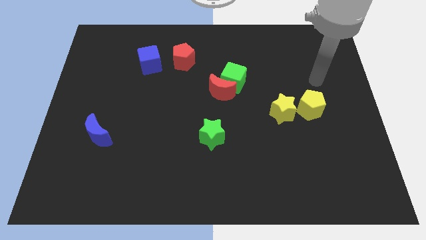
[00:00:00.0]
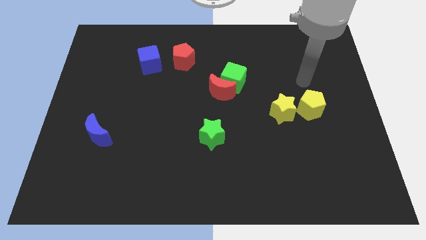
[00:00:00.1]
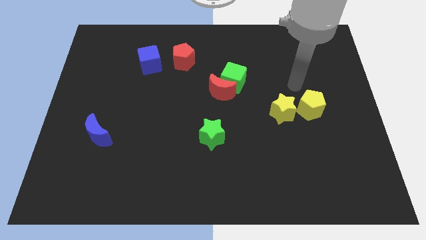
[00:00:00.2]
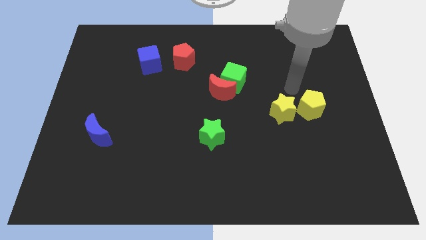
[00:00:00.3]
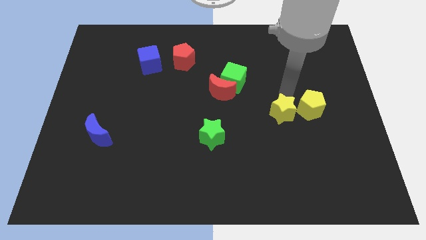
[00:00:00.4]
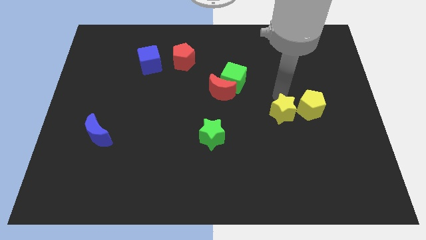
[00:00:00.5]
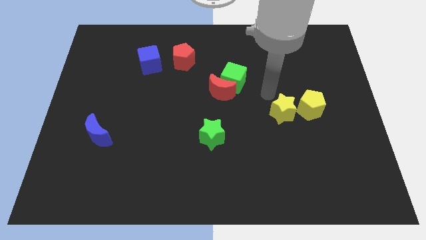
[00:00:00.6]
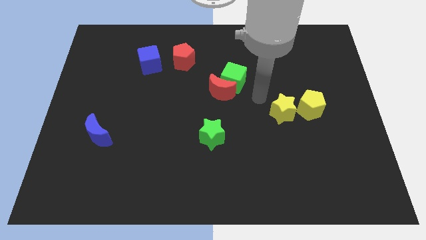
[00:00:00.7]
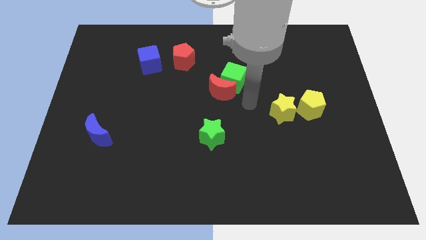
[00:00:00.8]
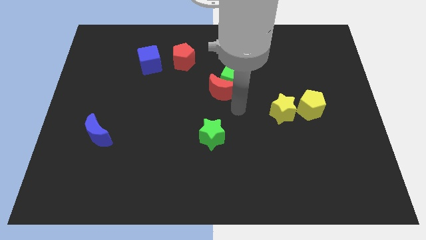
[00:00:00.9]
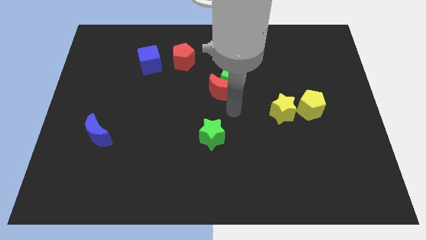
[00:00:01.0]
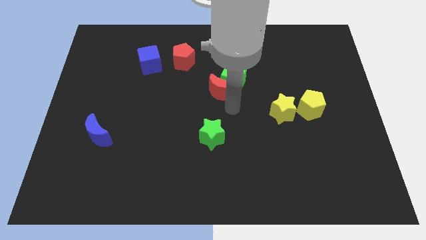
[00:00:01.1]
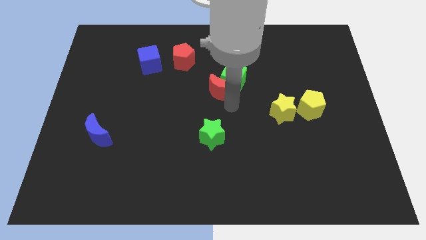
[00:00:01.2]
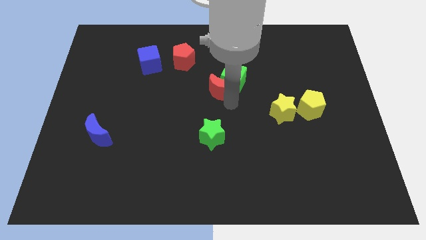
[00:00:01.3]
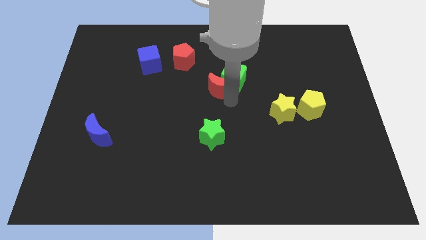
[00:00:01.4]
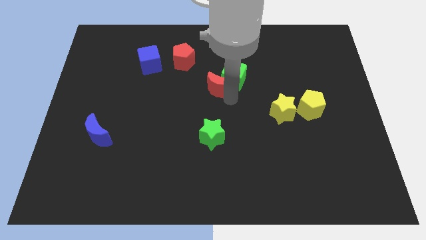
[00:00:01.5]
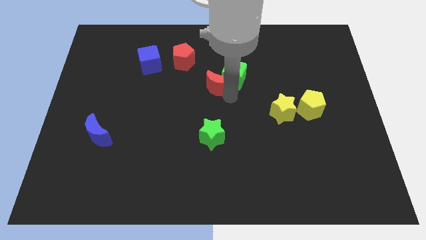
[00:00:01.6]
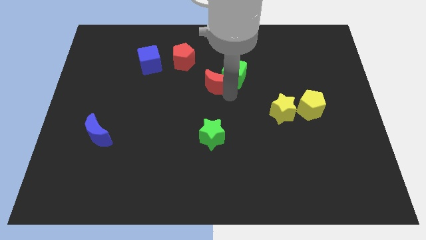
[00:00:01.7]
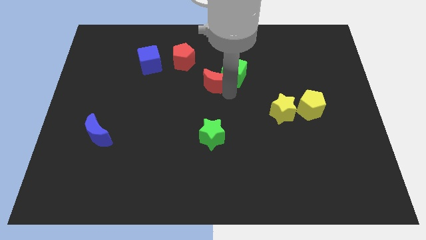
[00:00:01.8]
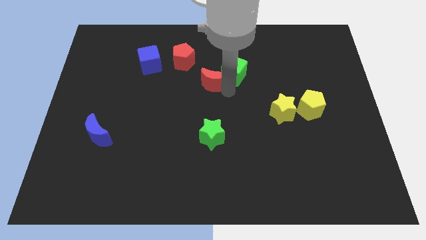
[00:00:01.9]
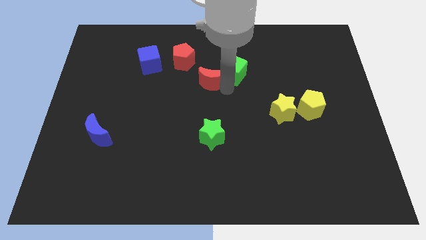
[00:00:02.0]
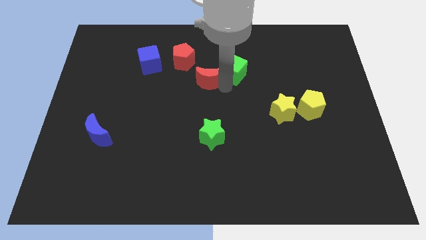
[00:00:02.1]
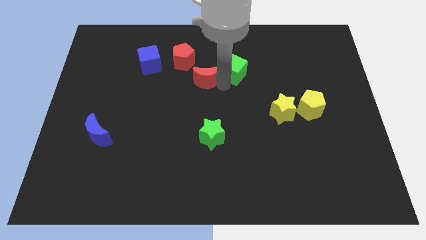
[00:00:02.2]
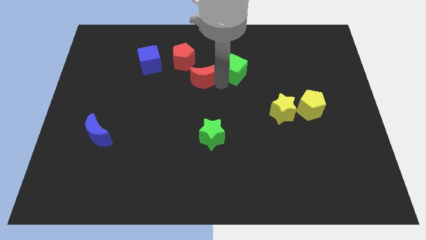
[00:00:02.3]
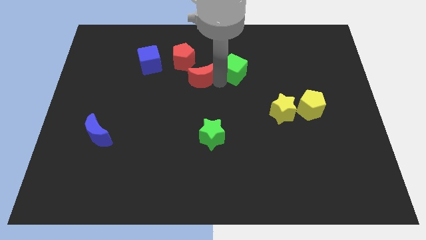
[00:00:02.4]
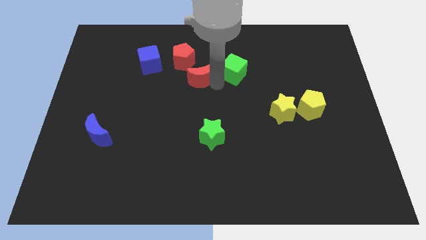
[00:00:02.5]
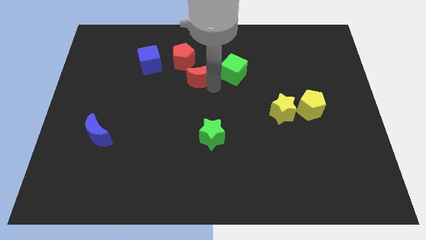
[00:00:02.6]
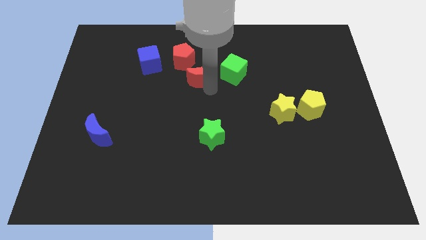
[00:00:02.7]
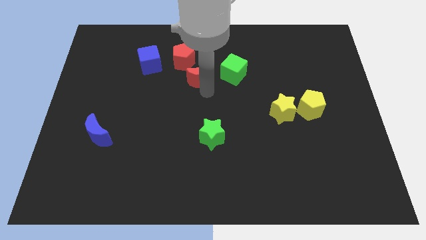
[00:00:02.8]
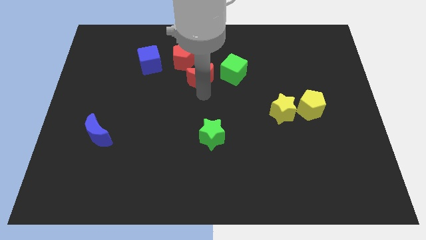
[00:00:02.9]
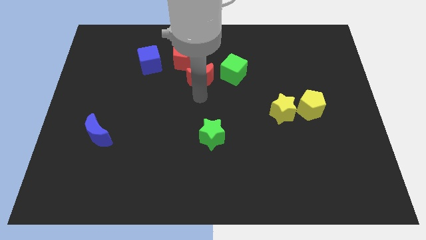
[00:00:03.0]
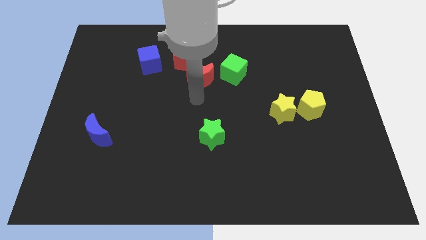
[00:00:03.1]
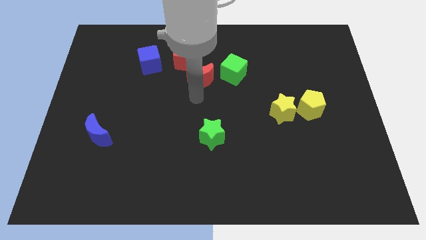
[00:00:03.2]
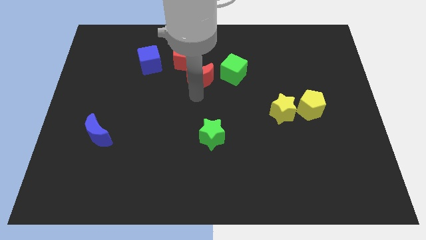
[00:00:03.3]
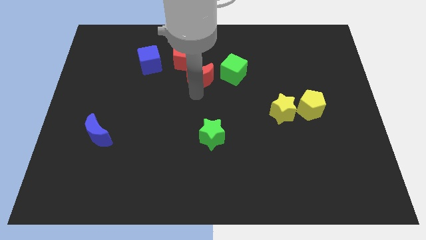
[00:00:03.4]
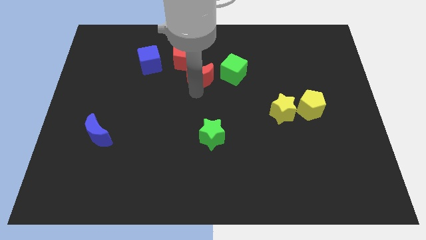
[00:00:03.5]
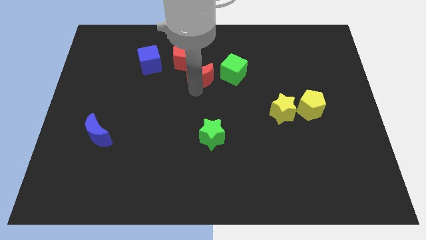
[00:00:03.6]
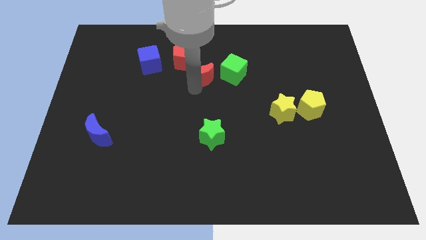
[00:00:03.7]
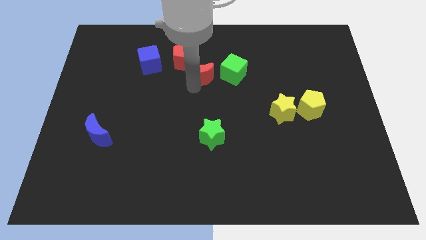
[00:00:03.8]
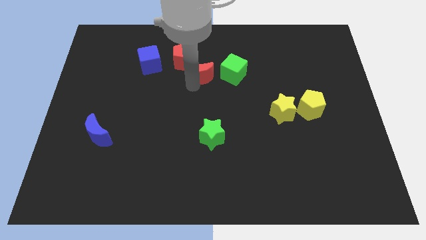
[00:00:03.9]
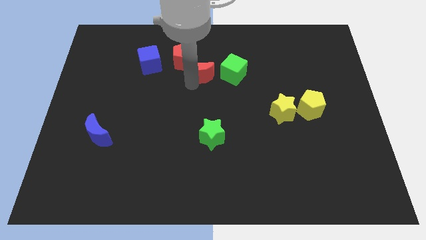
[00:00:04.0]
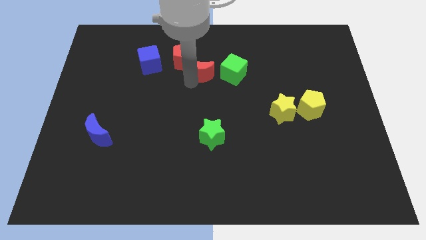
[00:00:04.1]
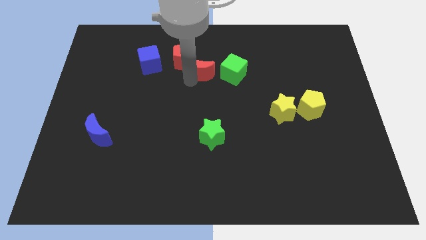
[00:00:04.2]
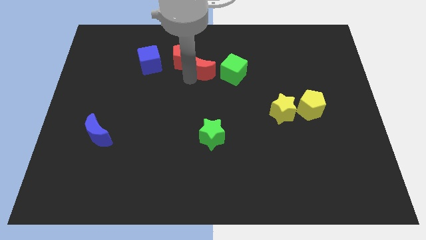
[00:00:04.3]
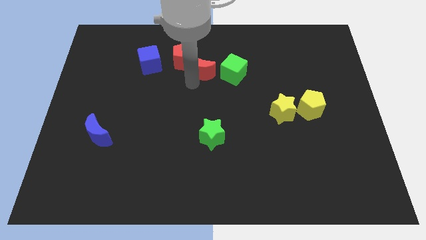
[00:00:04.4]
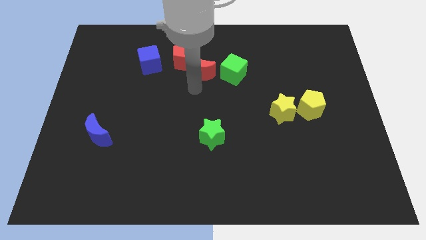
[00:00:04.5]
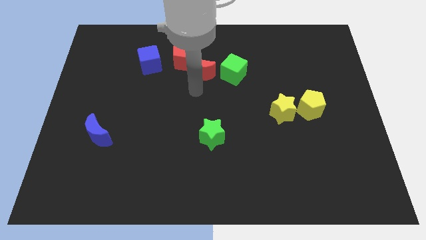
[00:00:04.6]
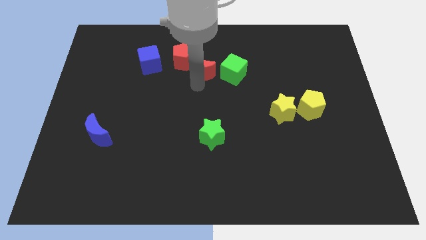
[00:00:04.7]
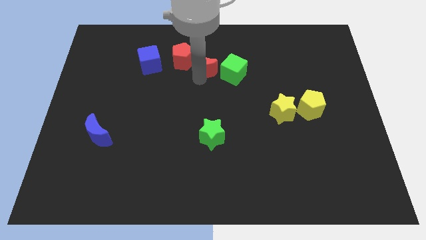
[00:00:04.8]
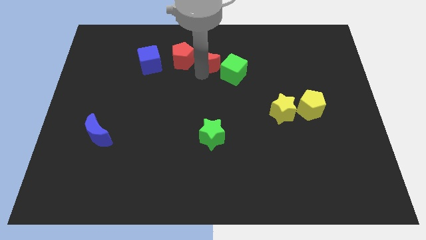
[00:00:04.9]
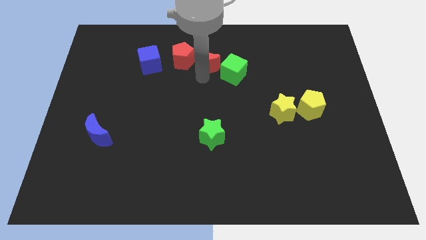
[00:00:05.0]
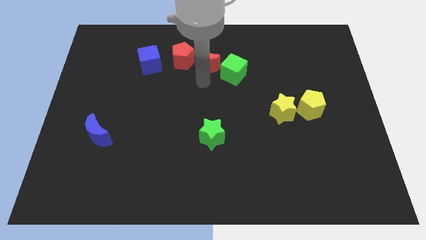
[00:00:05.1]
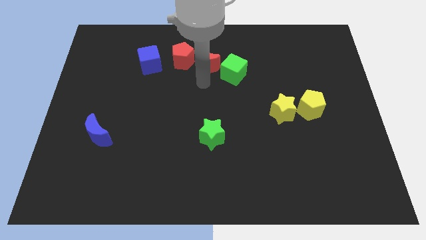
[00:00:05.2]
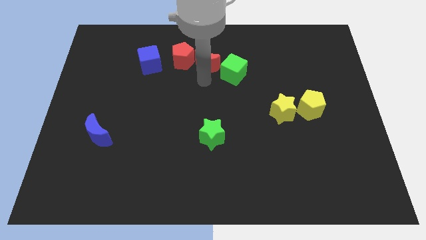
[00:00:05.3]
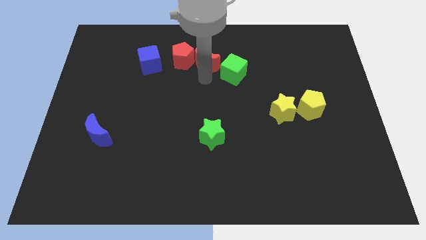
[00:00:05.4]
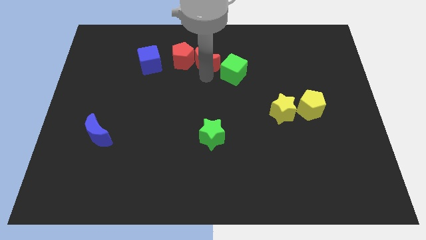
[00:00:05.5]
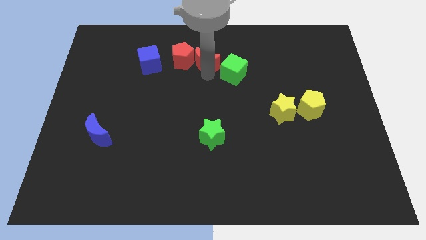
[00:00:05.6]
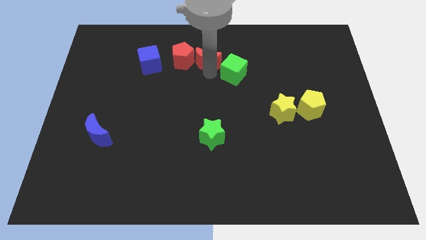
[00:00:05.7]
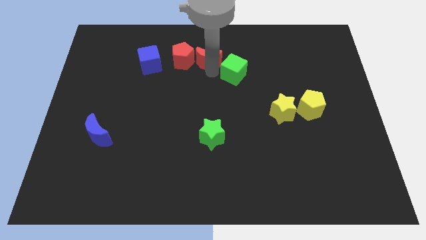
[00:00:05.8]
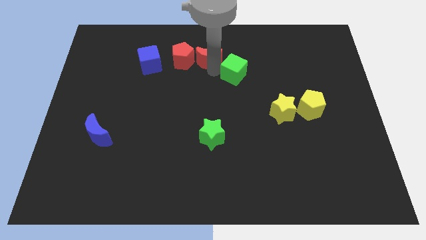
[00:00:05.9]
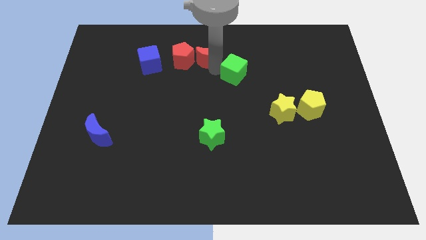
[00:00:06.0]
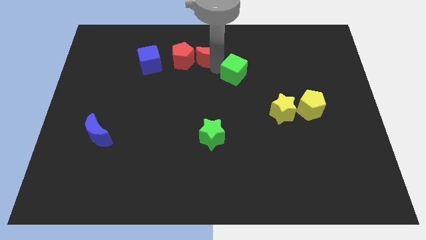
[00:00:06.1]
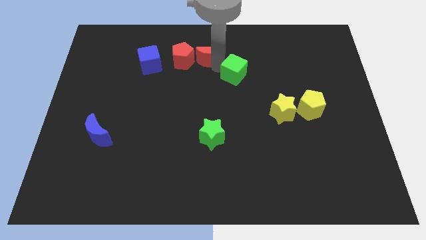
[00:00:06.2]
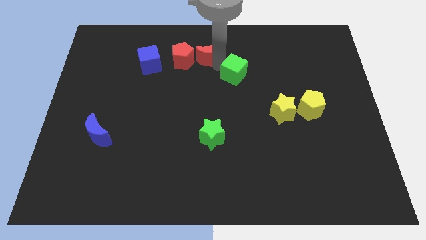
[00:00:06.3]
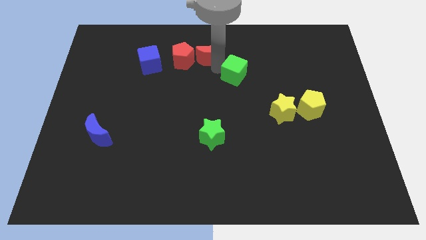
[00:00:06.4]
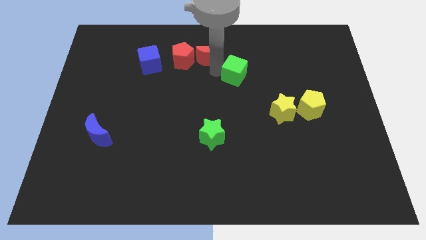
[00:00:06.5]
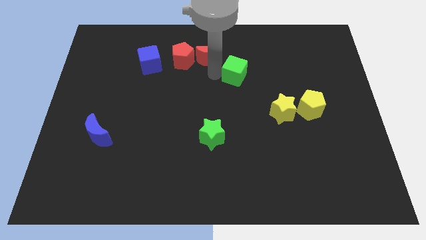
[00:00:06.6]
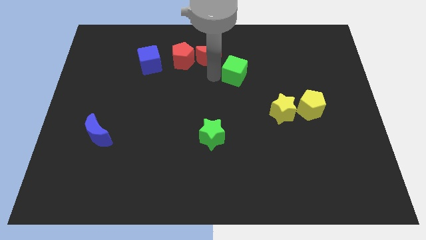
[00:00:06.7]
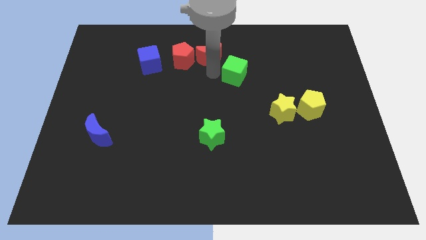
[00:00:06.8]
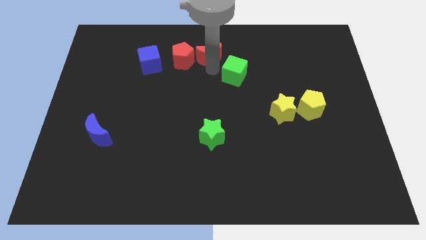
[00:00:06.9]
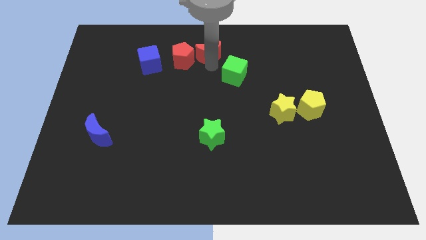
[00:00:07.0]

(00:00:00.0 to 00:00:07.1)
slide the red moon to the top
